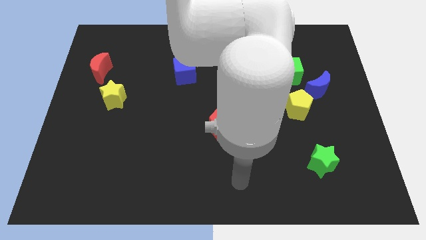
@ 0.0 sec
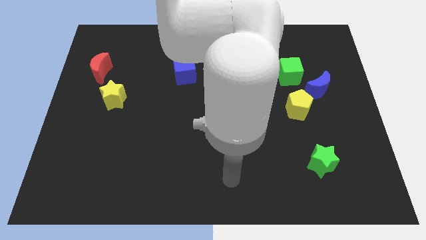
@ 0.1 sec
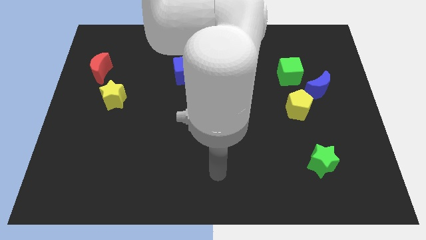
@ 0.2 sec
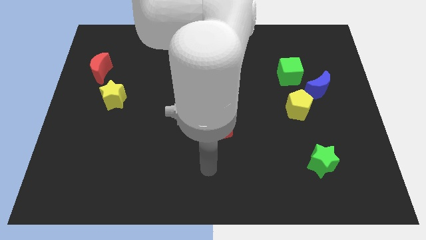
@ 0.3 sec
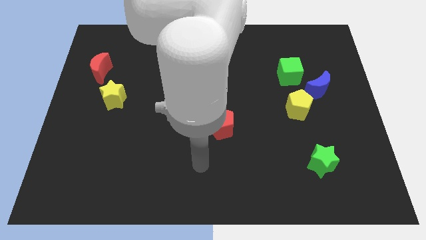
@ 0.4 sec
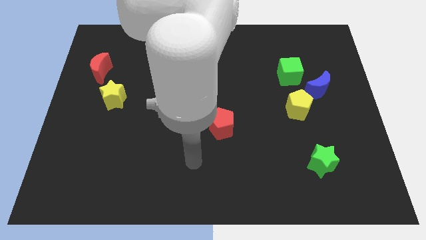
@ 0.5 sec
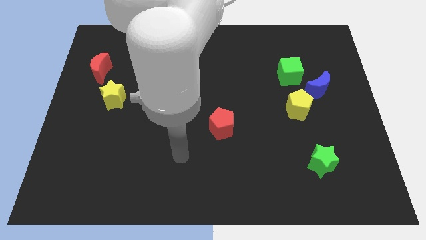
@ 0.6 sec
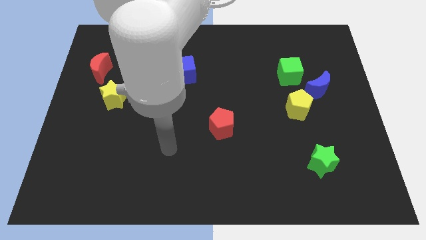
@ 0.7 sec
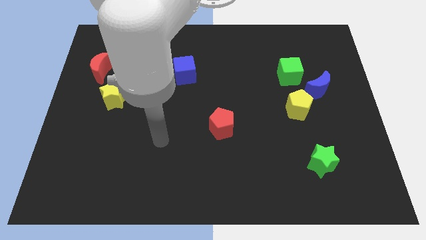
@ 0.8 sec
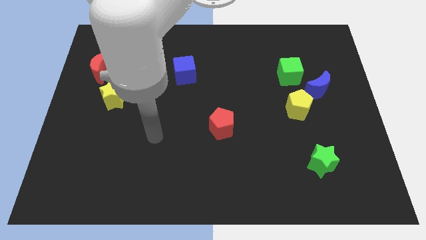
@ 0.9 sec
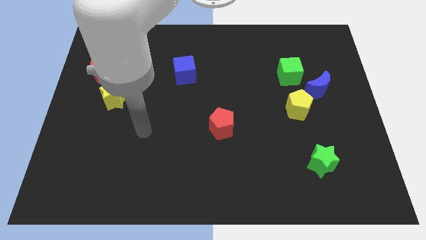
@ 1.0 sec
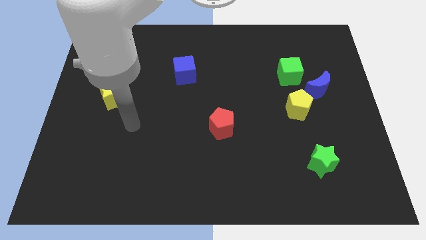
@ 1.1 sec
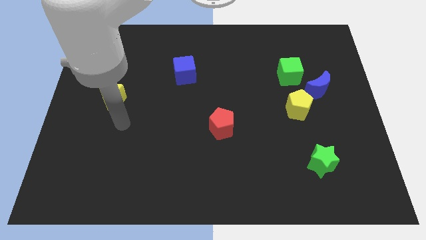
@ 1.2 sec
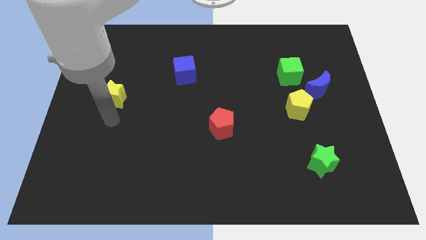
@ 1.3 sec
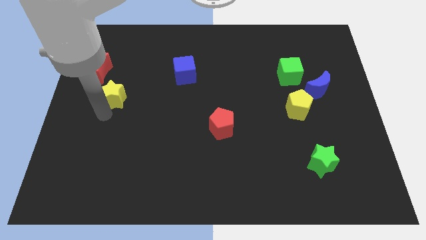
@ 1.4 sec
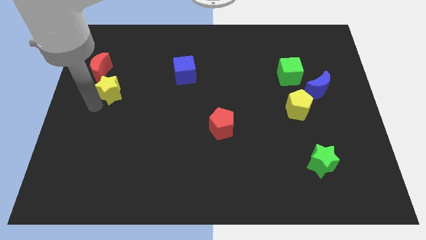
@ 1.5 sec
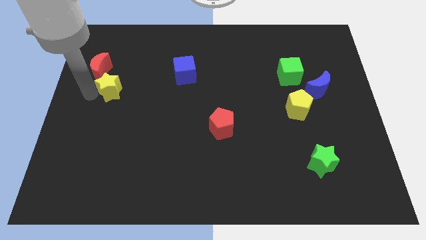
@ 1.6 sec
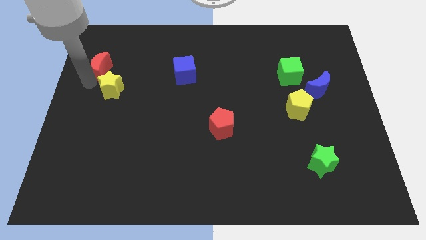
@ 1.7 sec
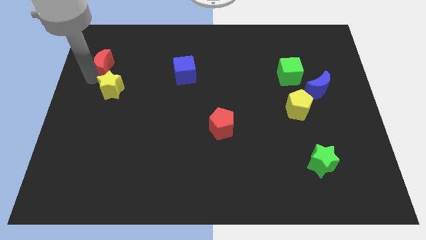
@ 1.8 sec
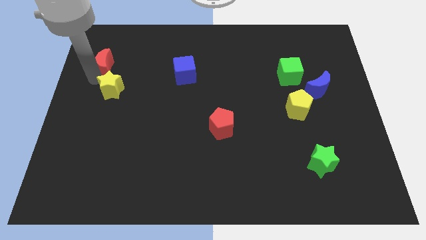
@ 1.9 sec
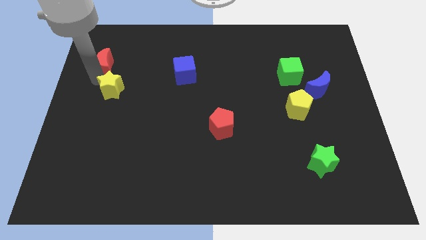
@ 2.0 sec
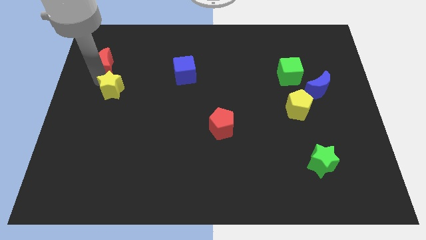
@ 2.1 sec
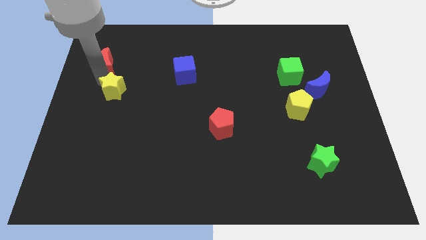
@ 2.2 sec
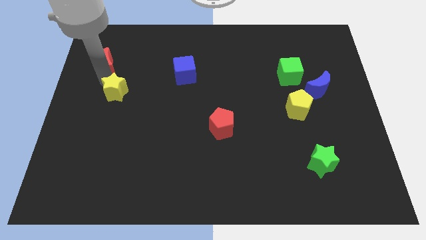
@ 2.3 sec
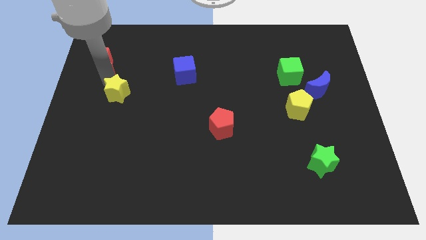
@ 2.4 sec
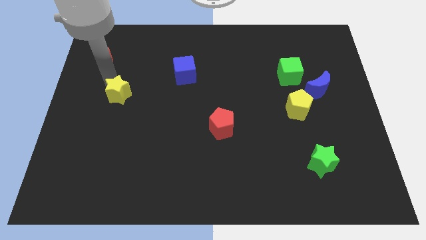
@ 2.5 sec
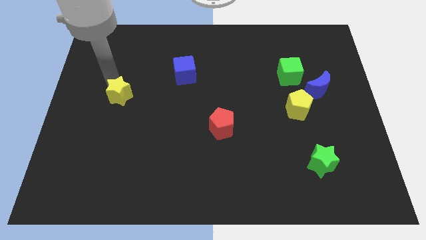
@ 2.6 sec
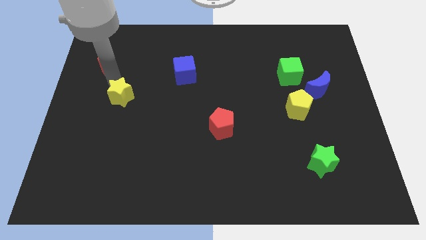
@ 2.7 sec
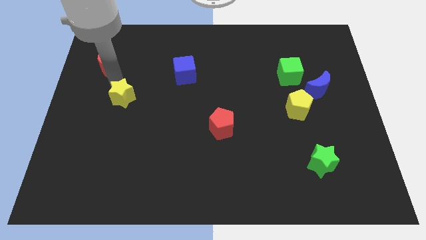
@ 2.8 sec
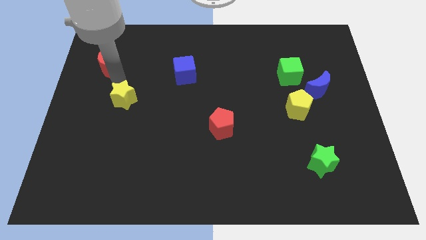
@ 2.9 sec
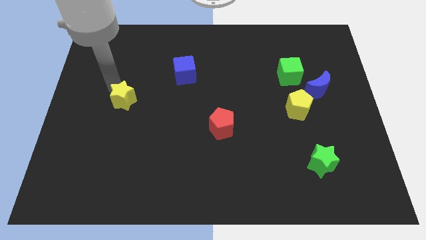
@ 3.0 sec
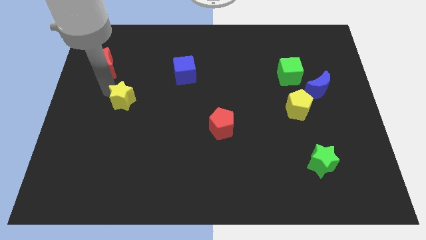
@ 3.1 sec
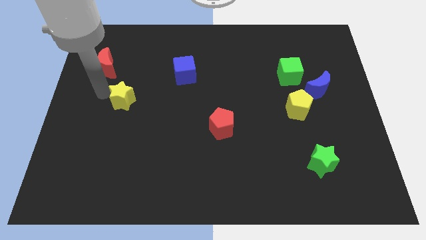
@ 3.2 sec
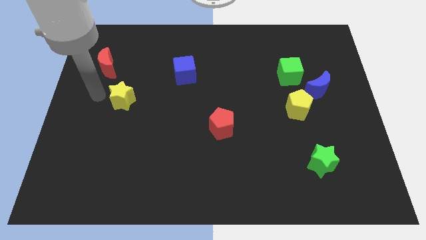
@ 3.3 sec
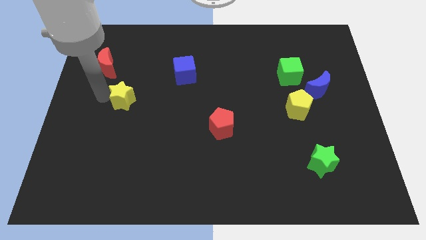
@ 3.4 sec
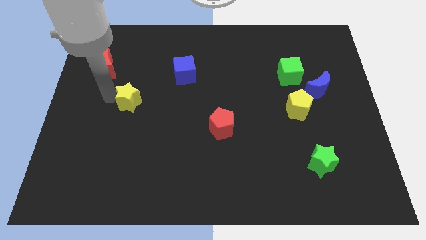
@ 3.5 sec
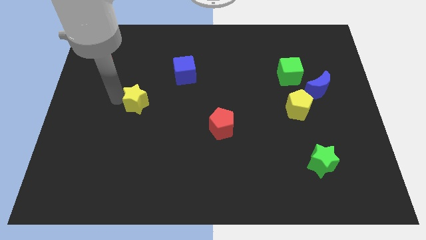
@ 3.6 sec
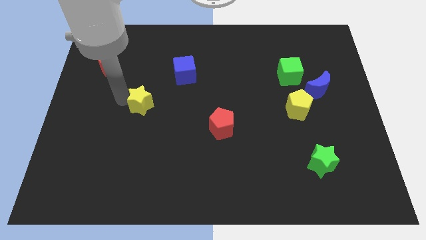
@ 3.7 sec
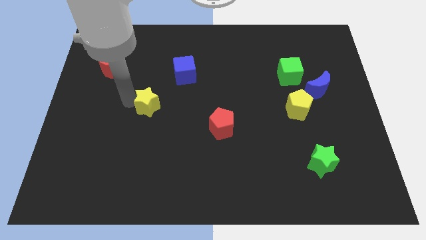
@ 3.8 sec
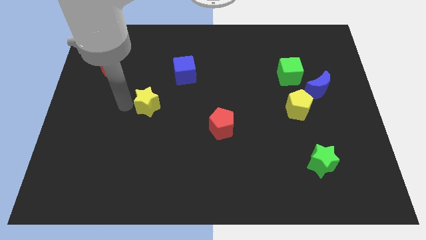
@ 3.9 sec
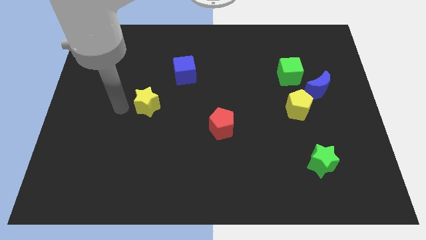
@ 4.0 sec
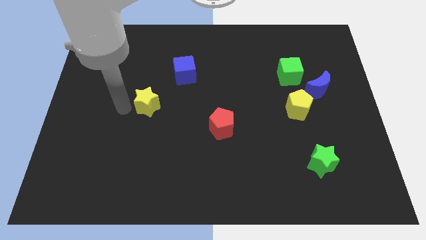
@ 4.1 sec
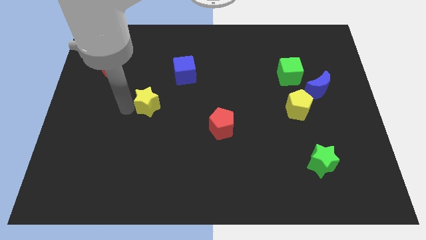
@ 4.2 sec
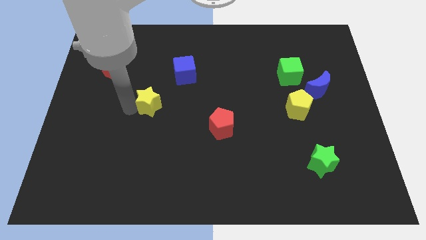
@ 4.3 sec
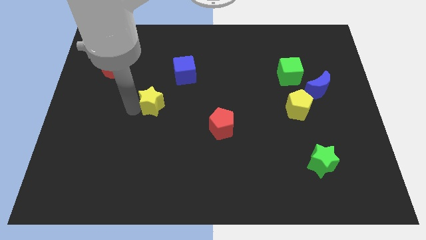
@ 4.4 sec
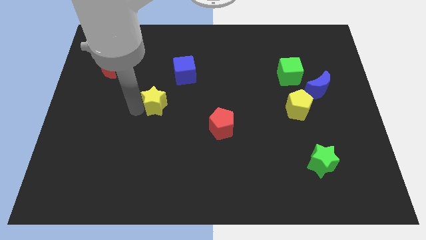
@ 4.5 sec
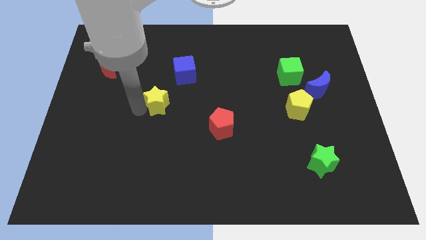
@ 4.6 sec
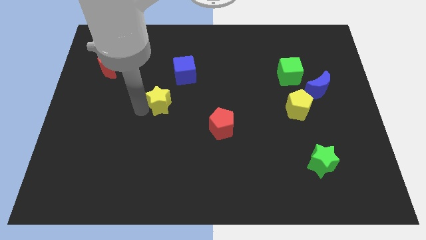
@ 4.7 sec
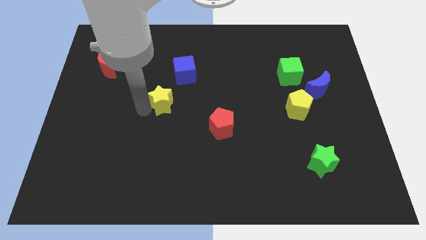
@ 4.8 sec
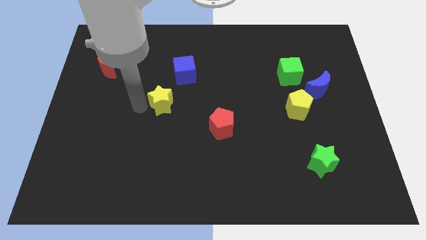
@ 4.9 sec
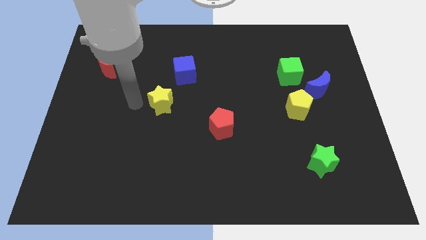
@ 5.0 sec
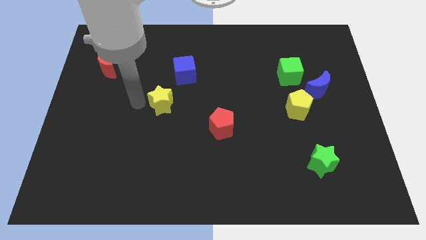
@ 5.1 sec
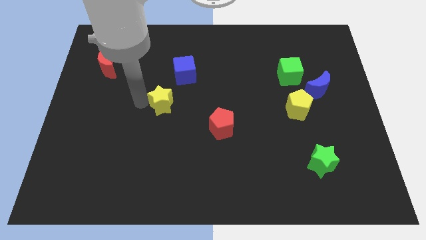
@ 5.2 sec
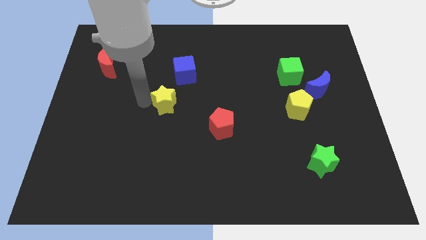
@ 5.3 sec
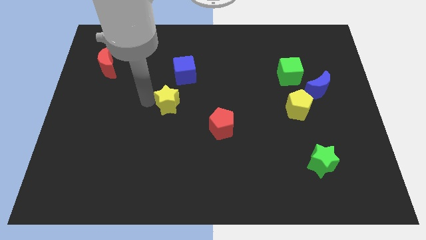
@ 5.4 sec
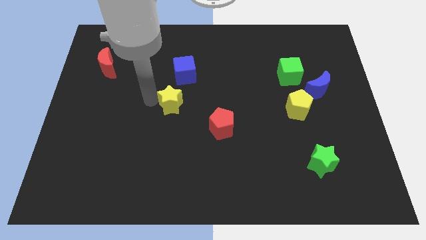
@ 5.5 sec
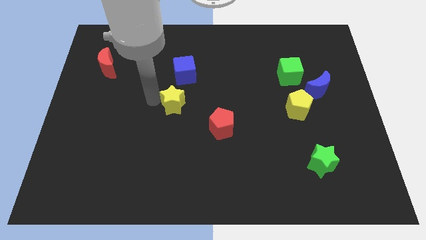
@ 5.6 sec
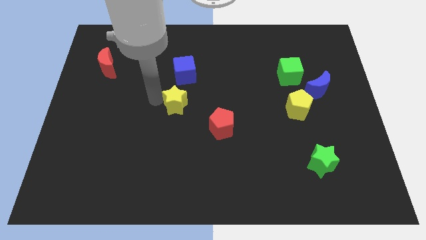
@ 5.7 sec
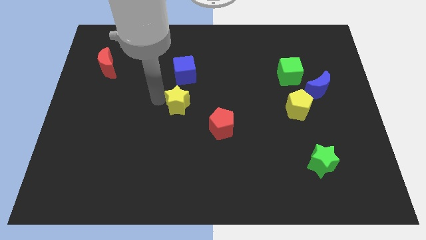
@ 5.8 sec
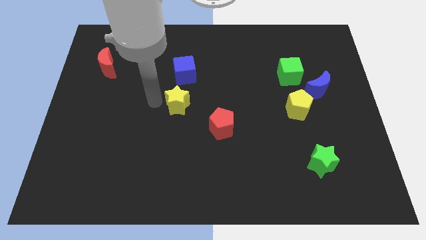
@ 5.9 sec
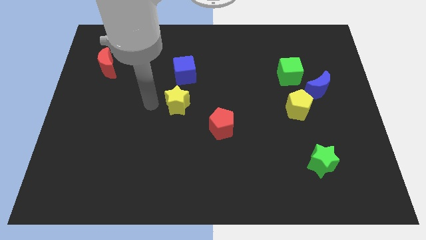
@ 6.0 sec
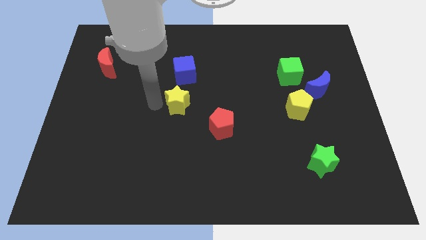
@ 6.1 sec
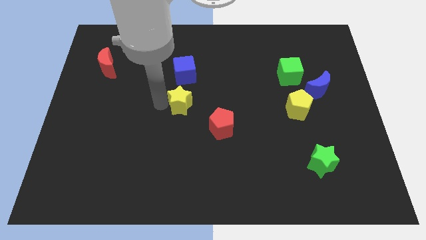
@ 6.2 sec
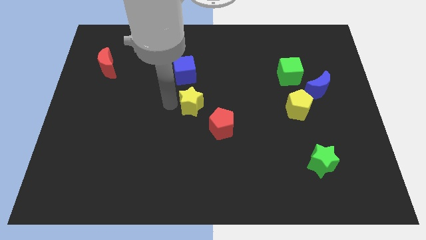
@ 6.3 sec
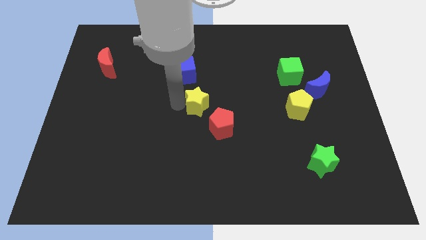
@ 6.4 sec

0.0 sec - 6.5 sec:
slide the yellow star right

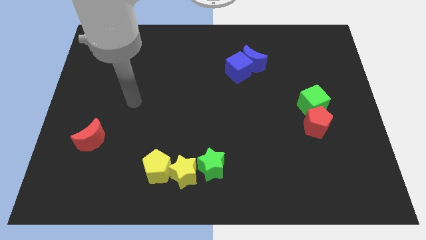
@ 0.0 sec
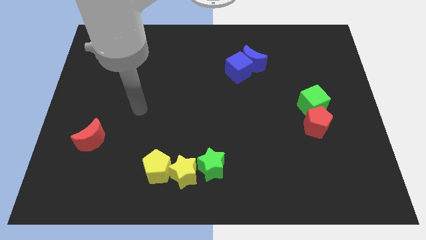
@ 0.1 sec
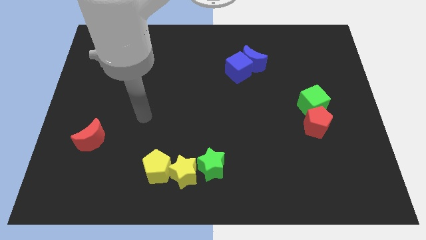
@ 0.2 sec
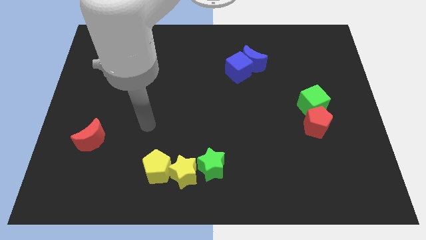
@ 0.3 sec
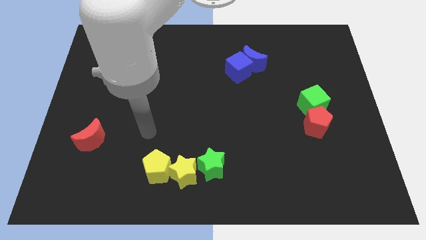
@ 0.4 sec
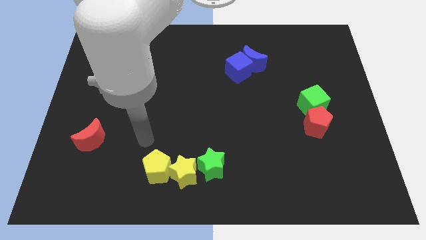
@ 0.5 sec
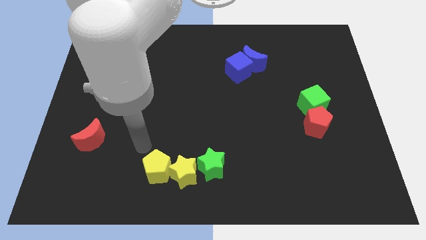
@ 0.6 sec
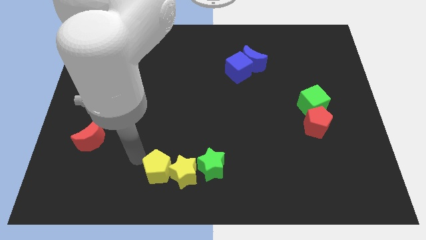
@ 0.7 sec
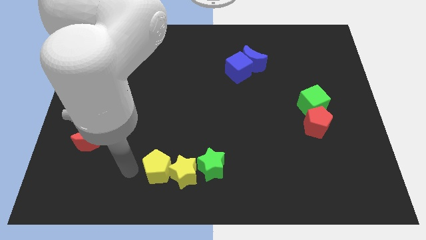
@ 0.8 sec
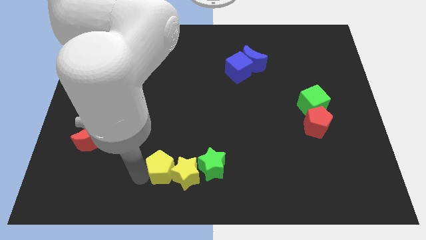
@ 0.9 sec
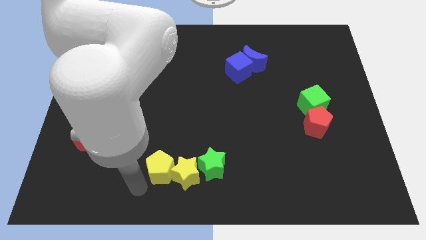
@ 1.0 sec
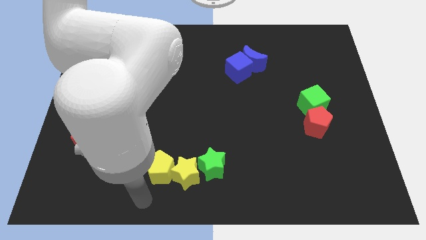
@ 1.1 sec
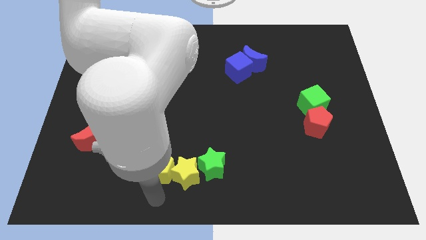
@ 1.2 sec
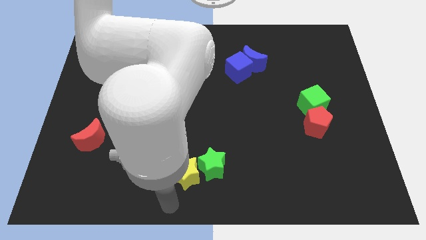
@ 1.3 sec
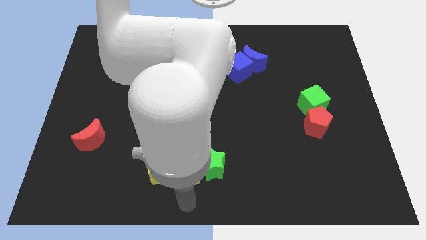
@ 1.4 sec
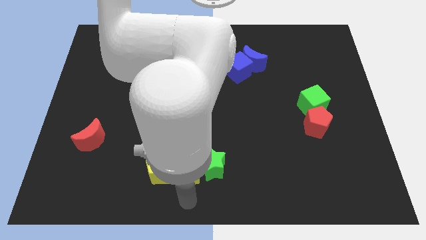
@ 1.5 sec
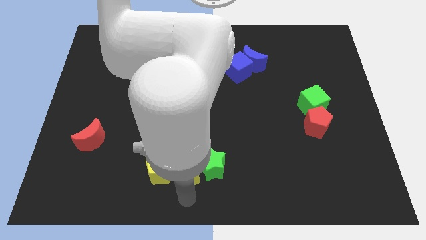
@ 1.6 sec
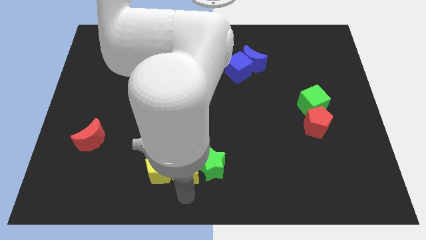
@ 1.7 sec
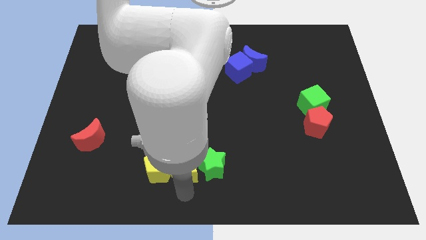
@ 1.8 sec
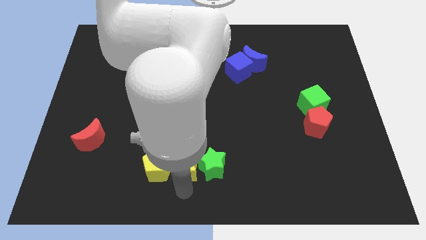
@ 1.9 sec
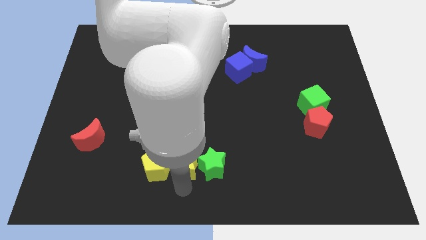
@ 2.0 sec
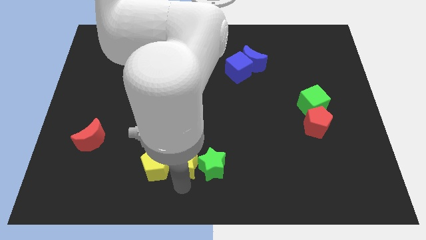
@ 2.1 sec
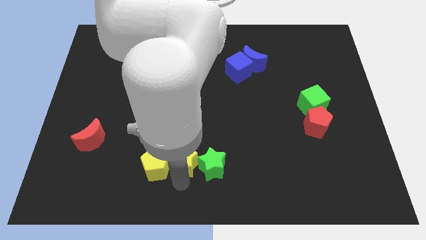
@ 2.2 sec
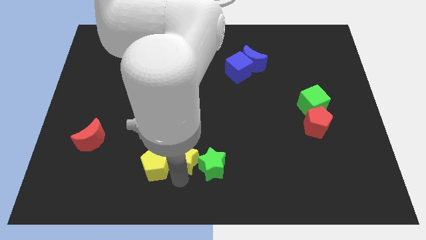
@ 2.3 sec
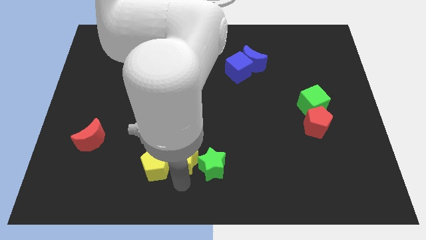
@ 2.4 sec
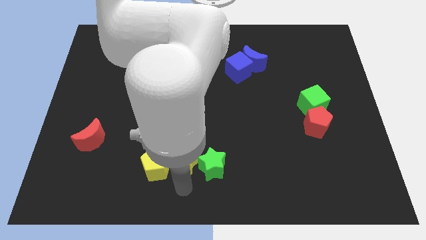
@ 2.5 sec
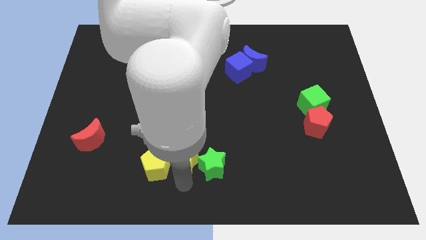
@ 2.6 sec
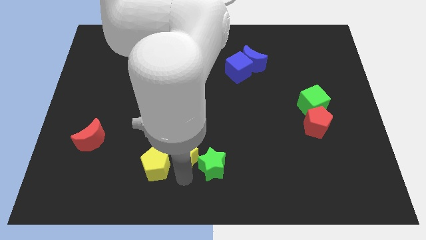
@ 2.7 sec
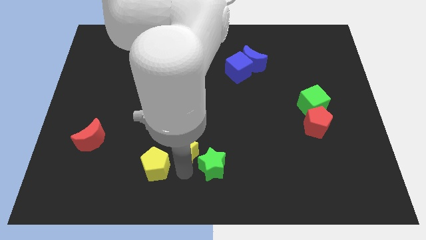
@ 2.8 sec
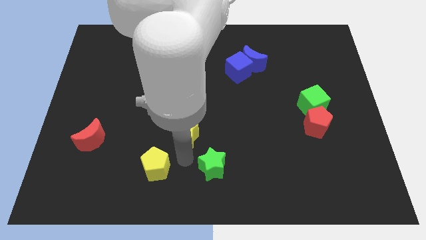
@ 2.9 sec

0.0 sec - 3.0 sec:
push the yellow star up a little bit
